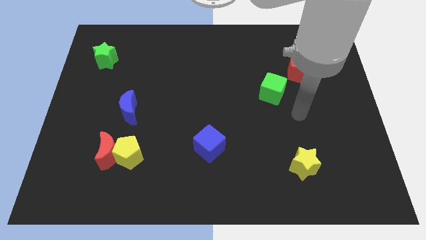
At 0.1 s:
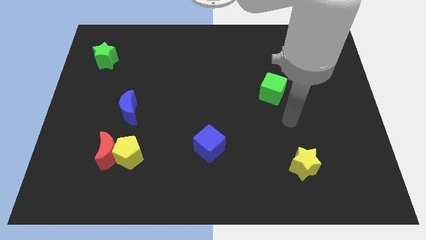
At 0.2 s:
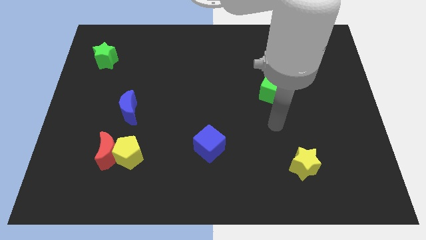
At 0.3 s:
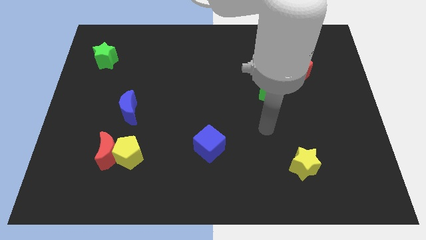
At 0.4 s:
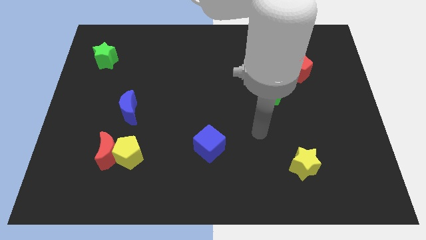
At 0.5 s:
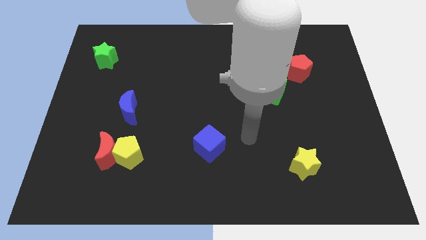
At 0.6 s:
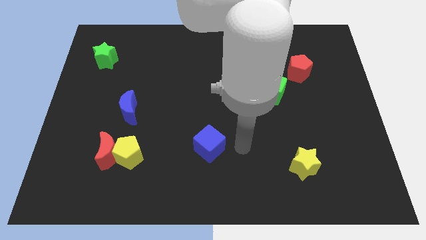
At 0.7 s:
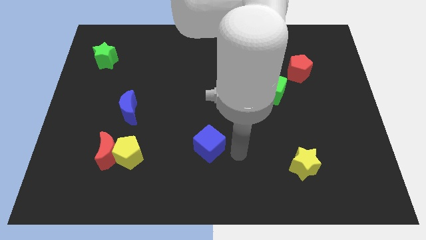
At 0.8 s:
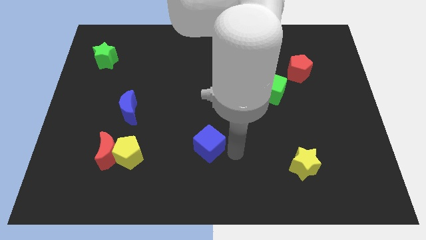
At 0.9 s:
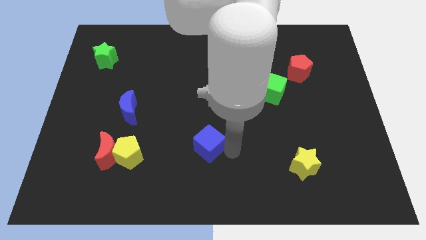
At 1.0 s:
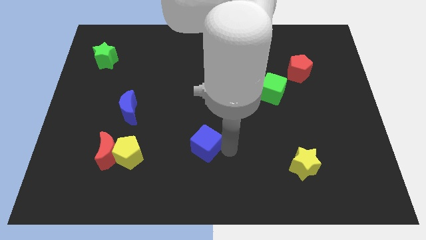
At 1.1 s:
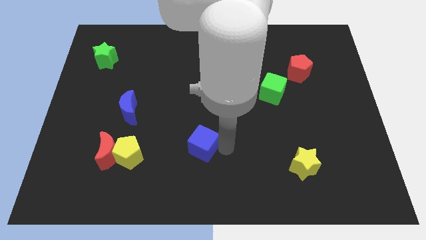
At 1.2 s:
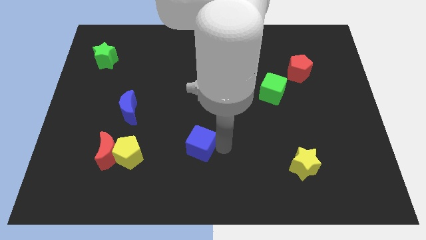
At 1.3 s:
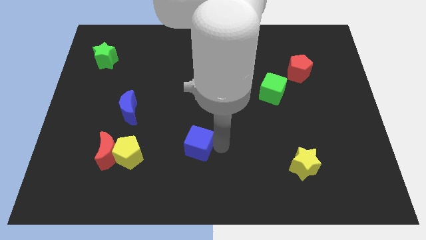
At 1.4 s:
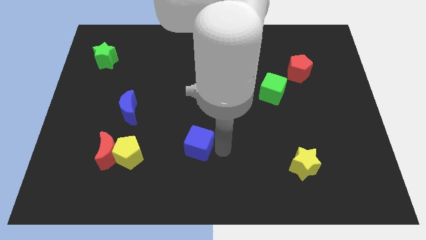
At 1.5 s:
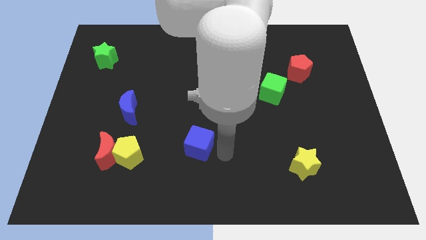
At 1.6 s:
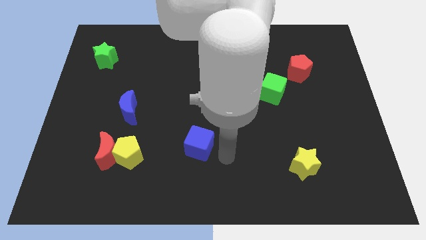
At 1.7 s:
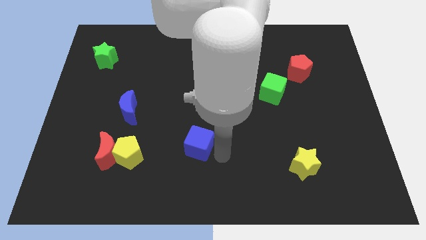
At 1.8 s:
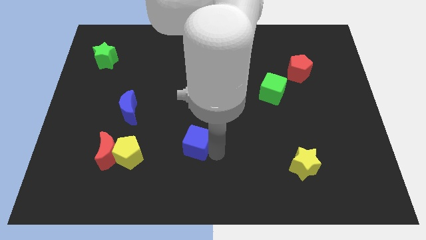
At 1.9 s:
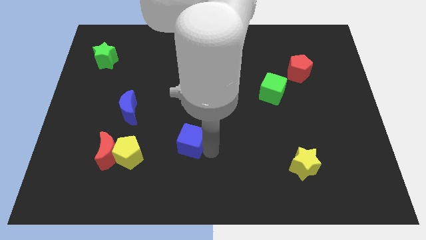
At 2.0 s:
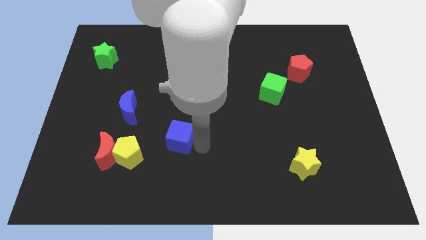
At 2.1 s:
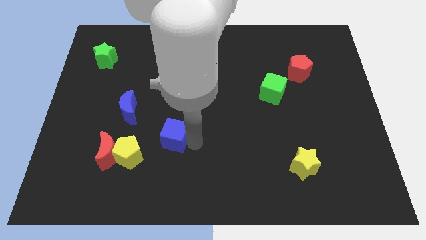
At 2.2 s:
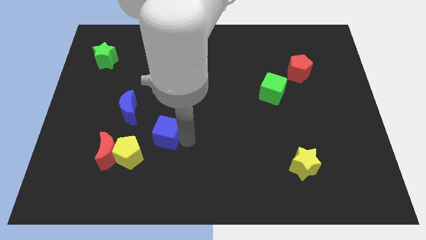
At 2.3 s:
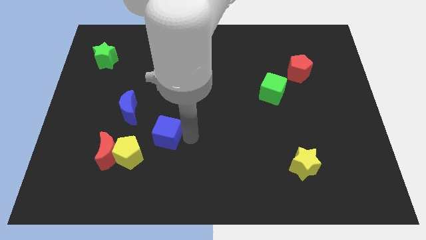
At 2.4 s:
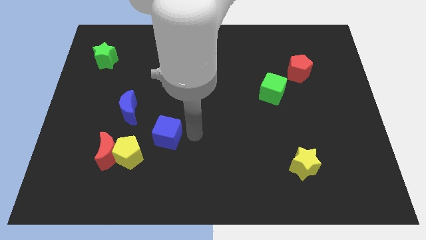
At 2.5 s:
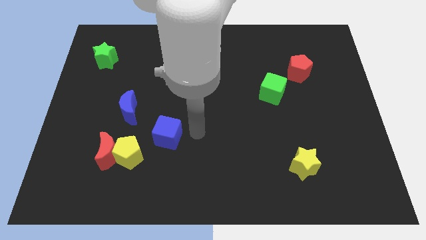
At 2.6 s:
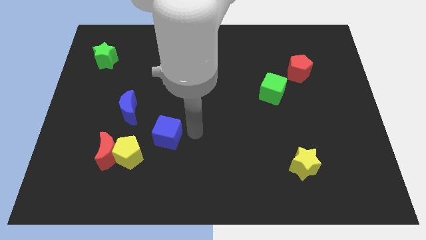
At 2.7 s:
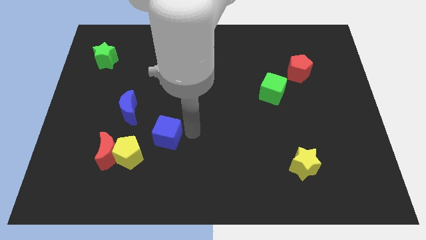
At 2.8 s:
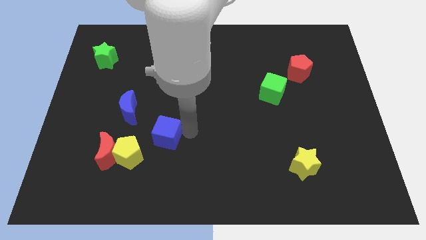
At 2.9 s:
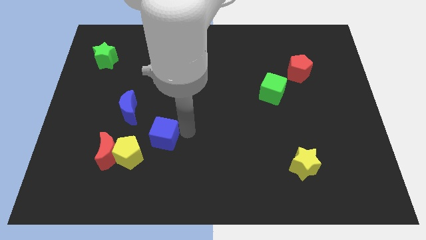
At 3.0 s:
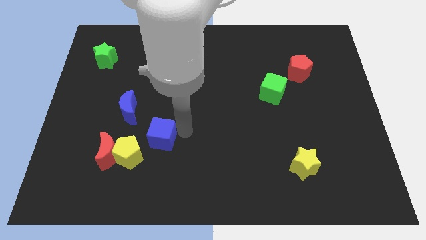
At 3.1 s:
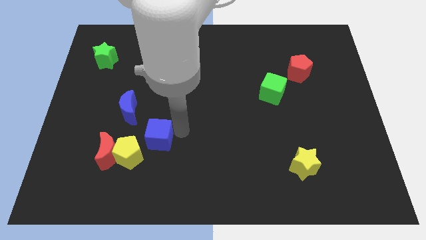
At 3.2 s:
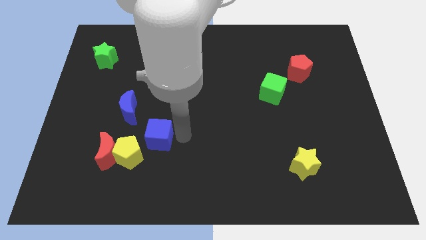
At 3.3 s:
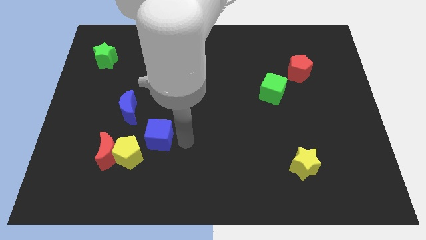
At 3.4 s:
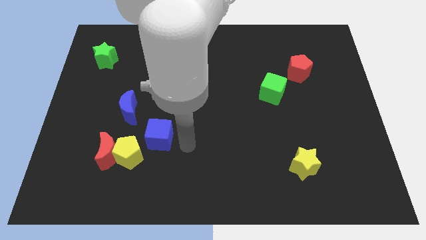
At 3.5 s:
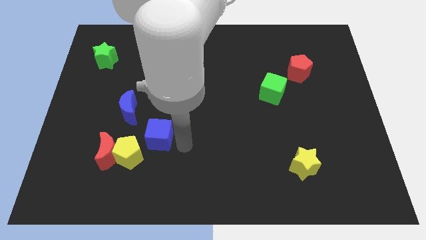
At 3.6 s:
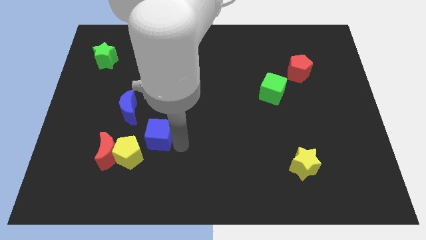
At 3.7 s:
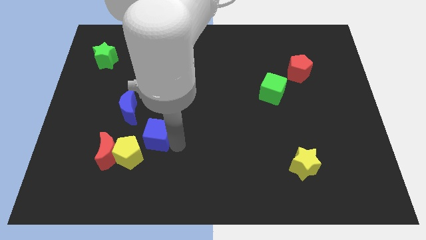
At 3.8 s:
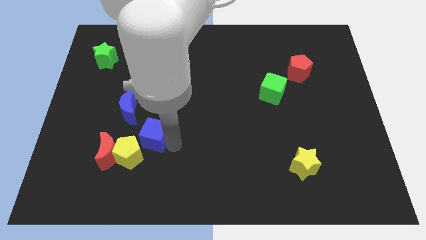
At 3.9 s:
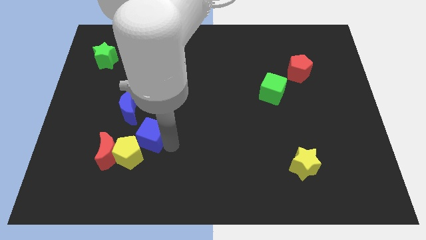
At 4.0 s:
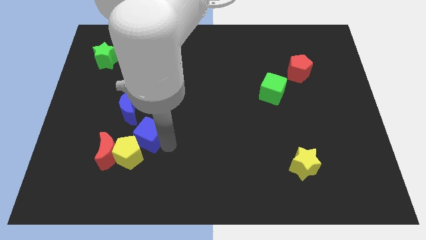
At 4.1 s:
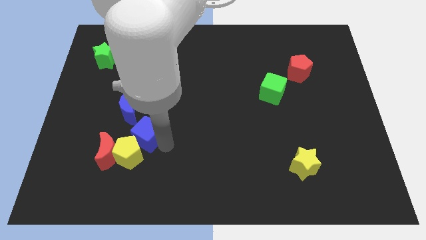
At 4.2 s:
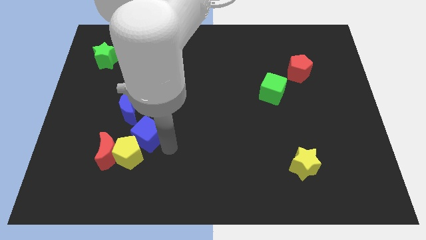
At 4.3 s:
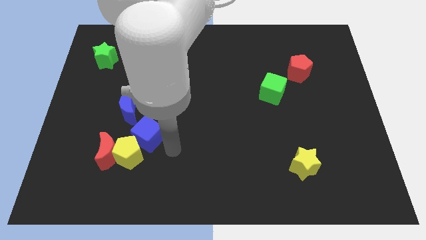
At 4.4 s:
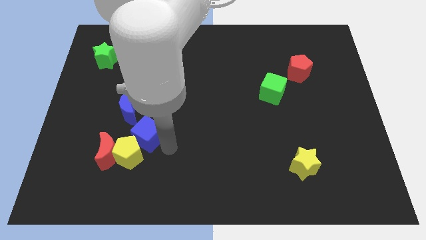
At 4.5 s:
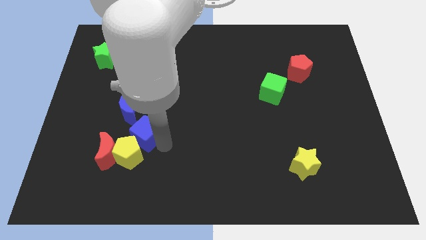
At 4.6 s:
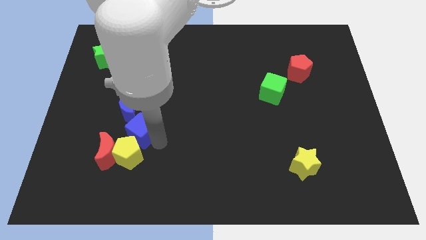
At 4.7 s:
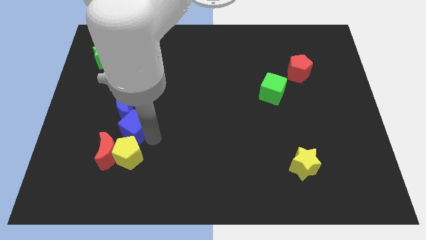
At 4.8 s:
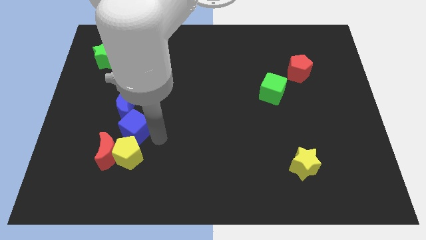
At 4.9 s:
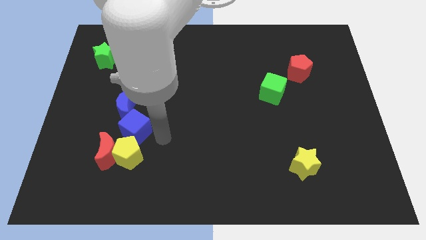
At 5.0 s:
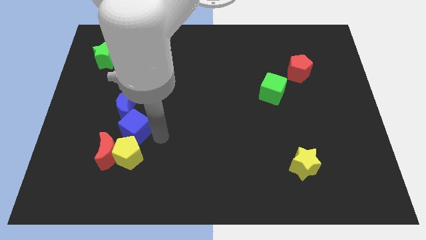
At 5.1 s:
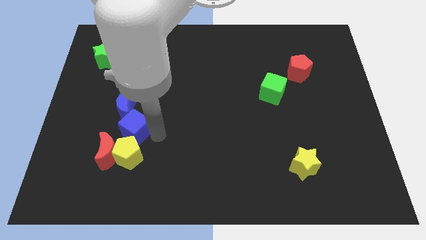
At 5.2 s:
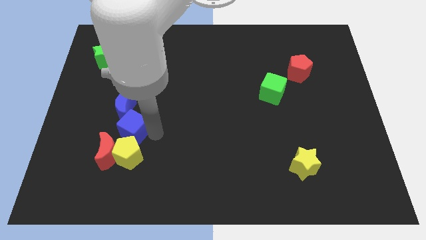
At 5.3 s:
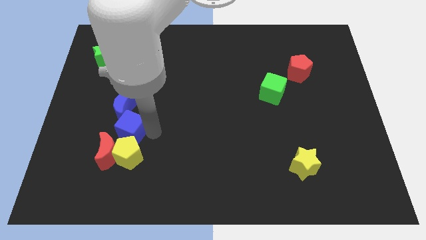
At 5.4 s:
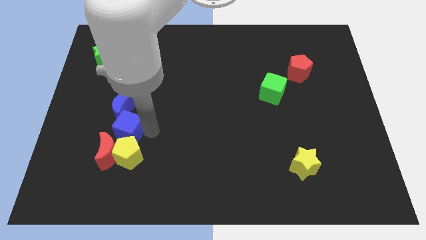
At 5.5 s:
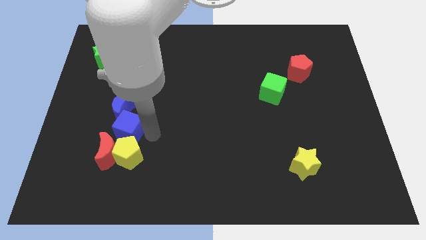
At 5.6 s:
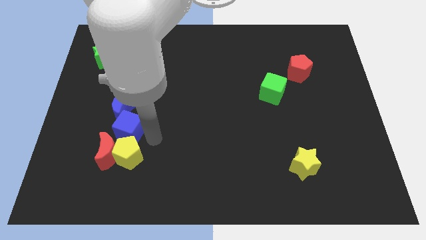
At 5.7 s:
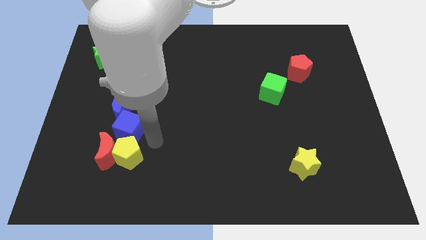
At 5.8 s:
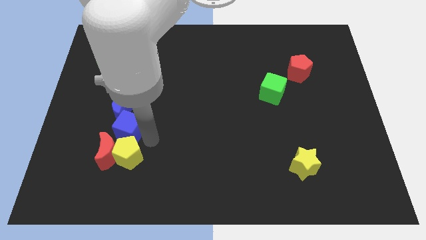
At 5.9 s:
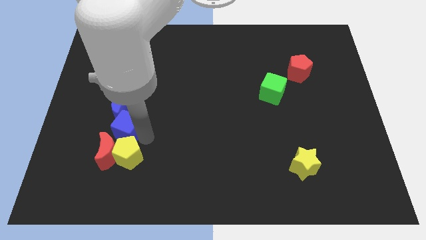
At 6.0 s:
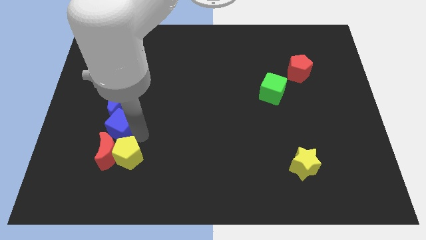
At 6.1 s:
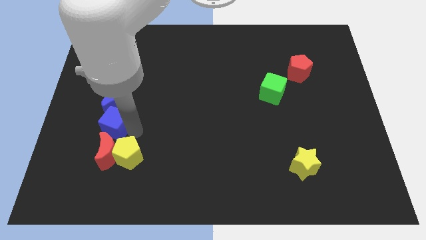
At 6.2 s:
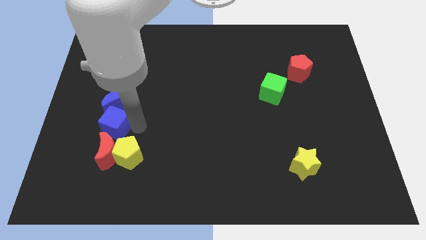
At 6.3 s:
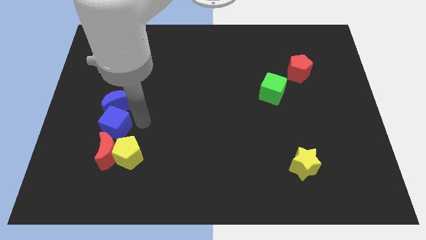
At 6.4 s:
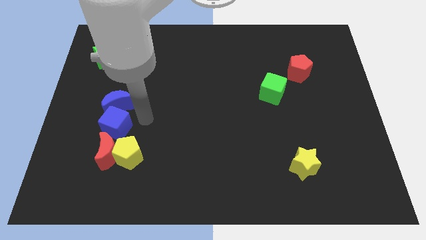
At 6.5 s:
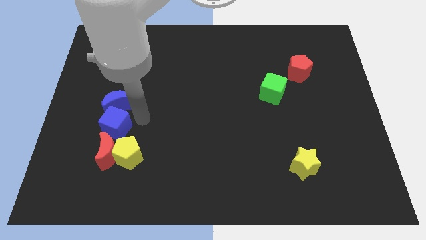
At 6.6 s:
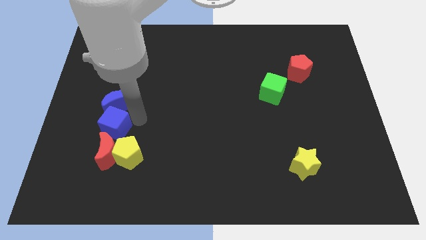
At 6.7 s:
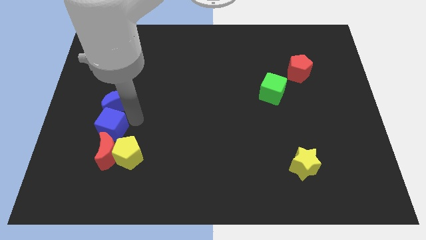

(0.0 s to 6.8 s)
move the blue cube to the top left side of the red moon
